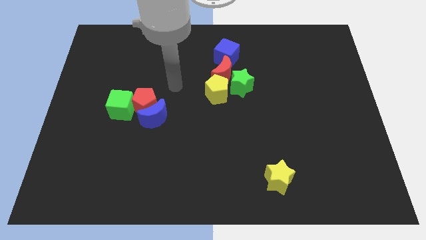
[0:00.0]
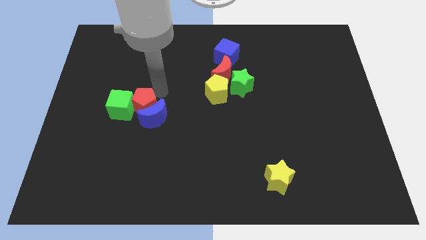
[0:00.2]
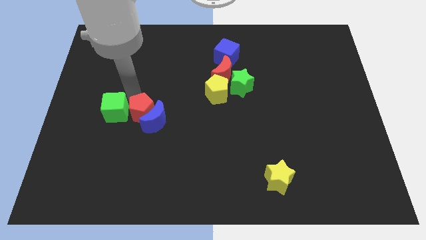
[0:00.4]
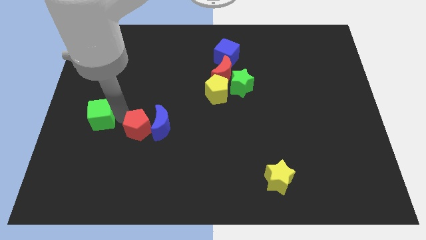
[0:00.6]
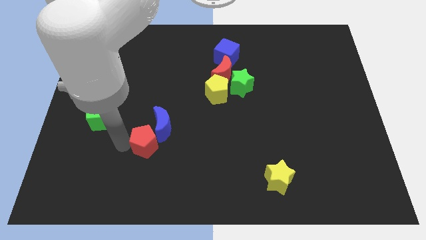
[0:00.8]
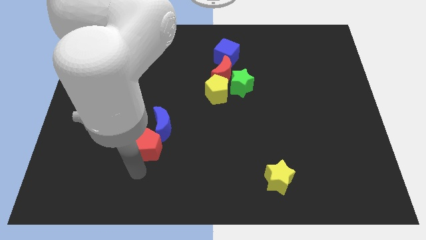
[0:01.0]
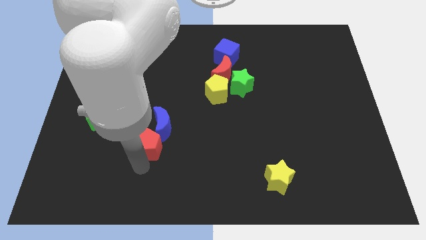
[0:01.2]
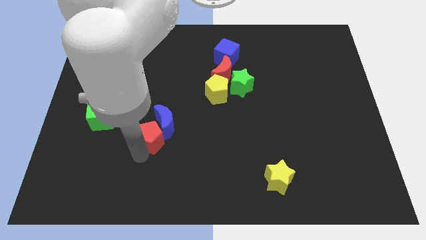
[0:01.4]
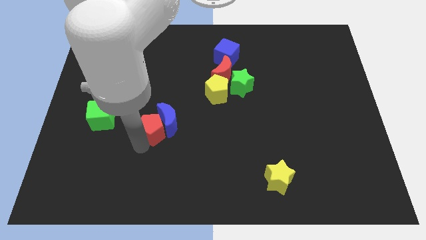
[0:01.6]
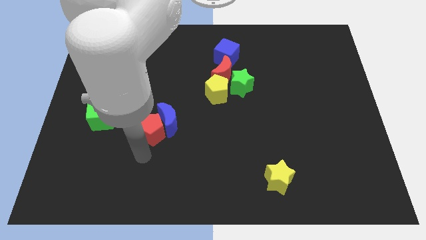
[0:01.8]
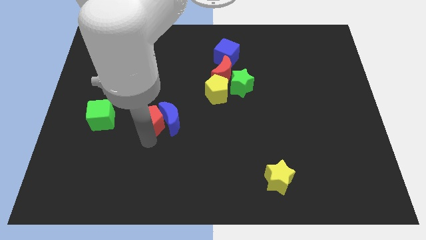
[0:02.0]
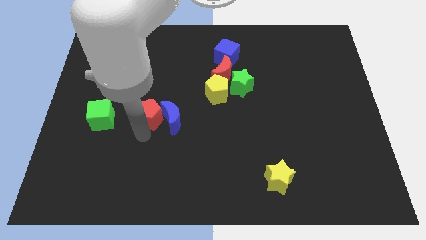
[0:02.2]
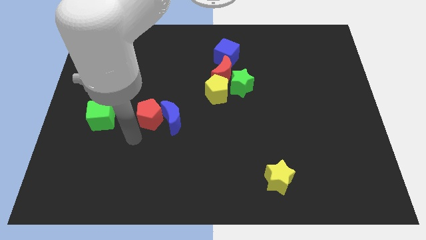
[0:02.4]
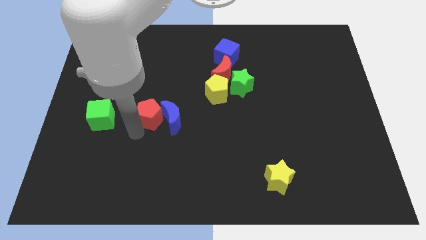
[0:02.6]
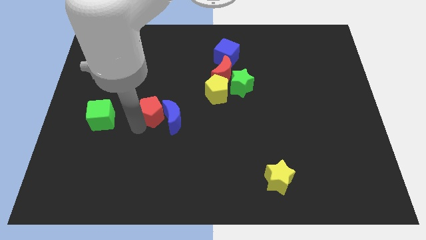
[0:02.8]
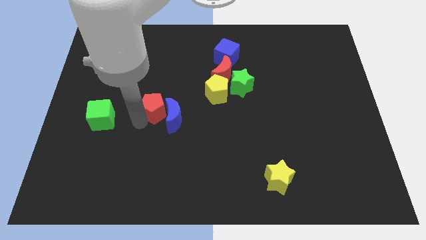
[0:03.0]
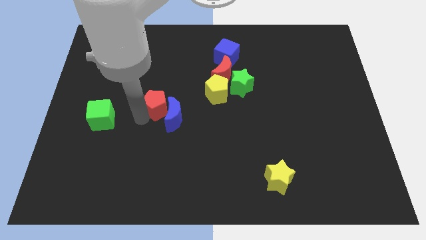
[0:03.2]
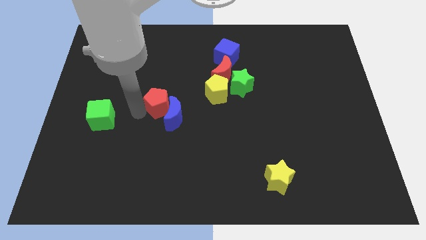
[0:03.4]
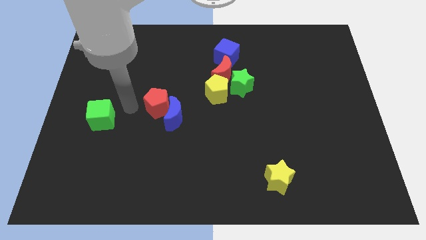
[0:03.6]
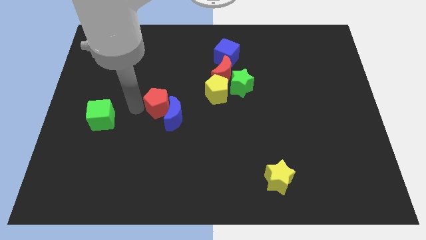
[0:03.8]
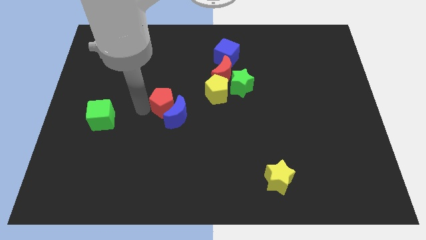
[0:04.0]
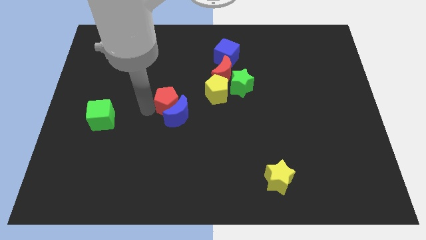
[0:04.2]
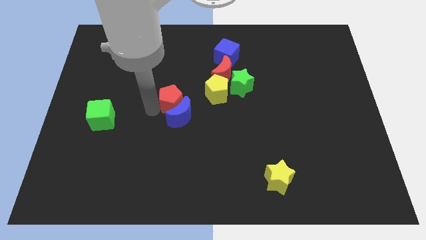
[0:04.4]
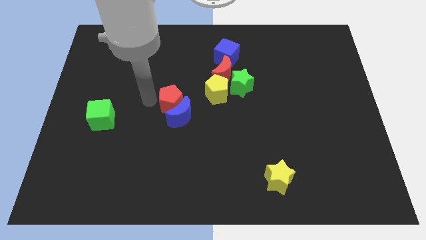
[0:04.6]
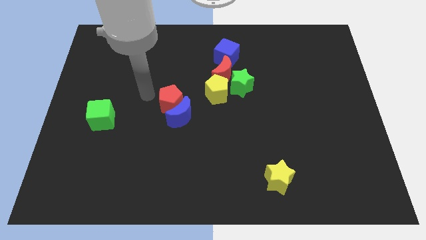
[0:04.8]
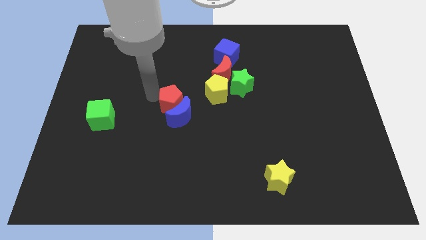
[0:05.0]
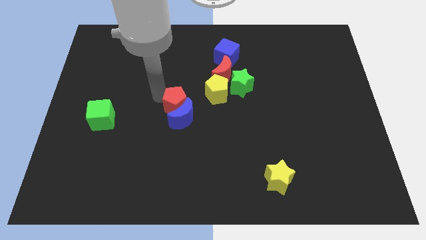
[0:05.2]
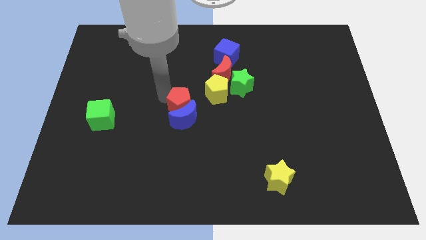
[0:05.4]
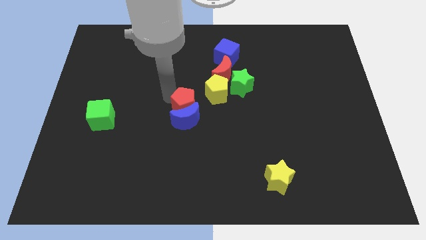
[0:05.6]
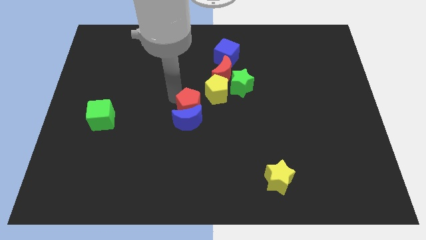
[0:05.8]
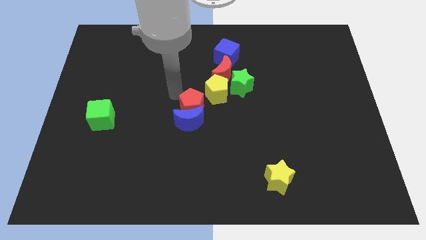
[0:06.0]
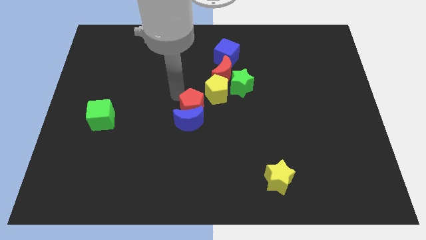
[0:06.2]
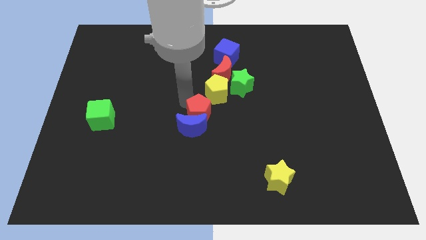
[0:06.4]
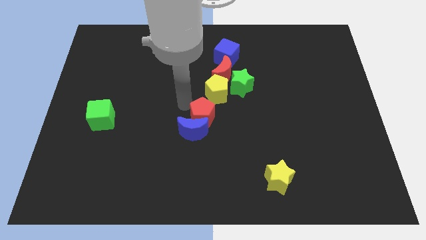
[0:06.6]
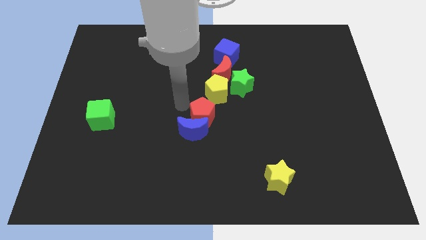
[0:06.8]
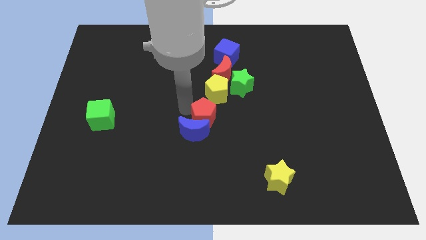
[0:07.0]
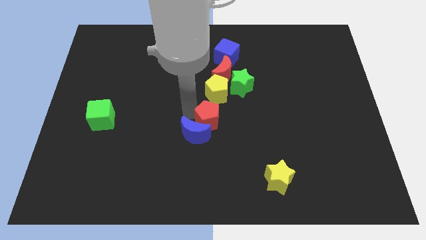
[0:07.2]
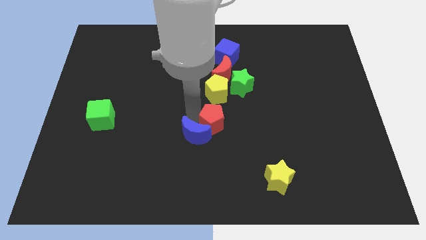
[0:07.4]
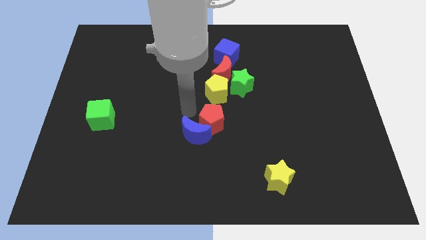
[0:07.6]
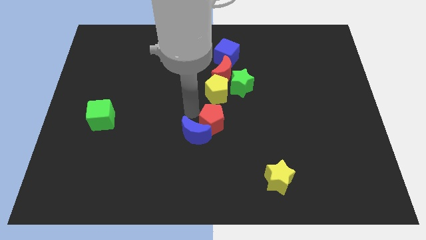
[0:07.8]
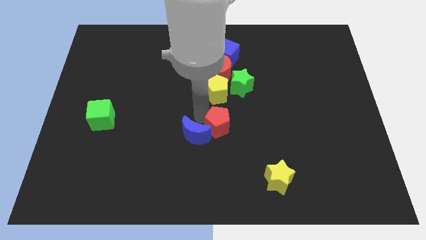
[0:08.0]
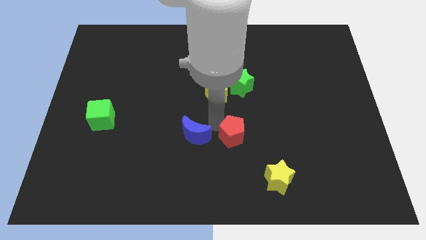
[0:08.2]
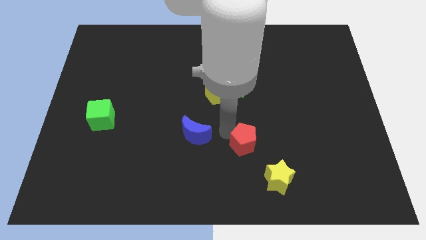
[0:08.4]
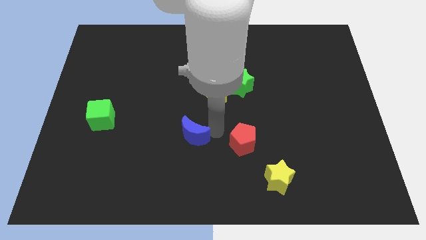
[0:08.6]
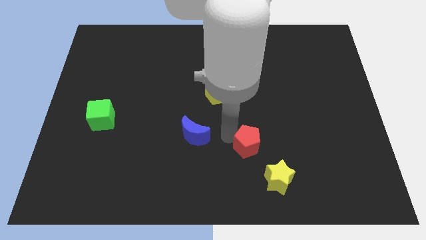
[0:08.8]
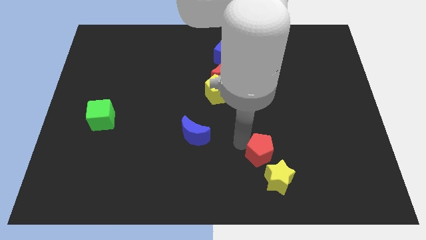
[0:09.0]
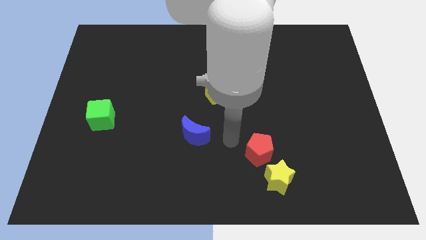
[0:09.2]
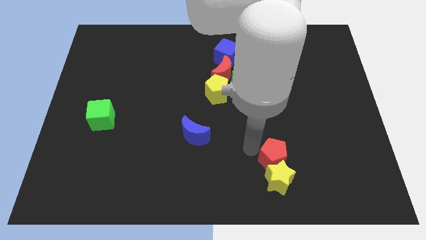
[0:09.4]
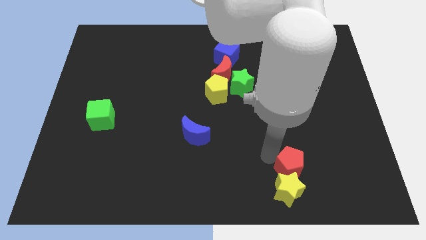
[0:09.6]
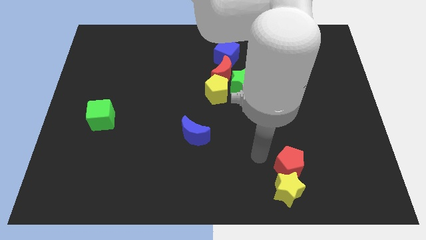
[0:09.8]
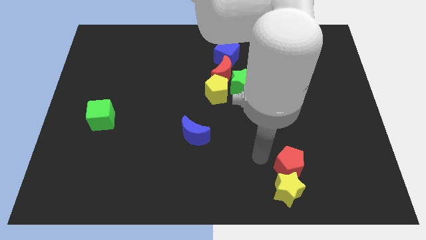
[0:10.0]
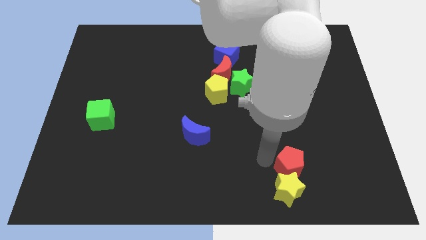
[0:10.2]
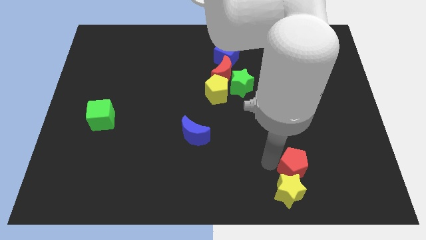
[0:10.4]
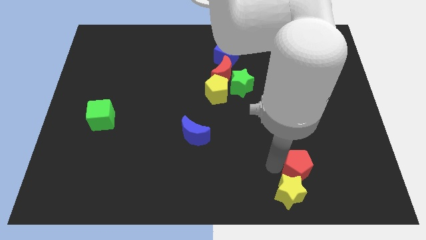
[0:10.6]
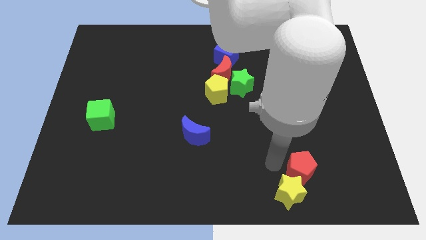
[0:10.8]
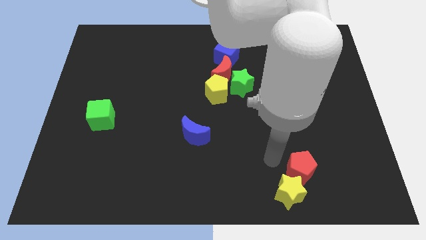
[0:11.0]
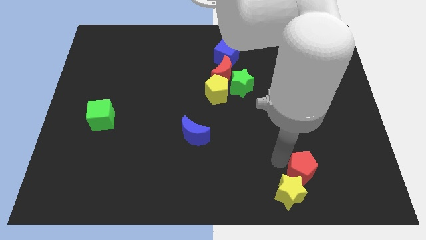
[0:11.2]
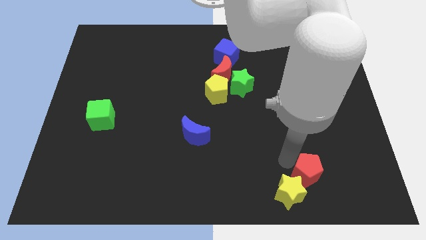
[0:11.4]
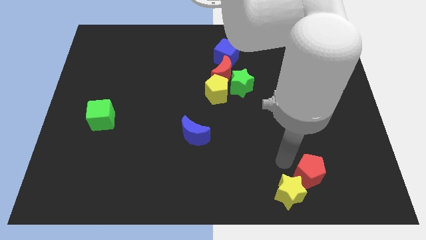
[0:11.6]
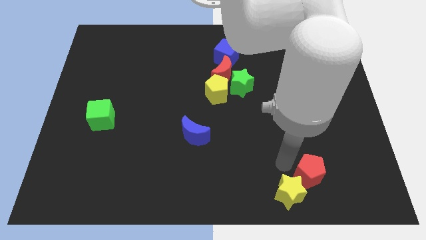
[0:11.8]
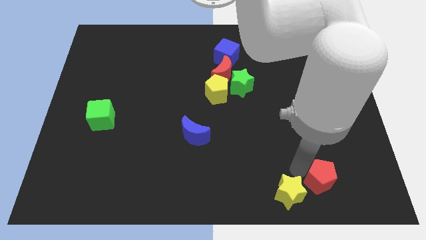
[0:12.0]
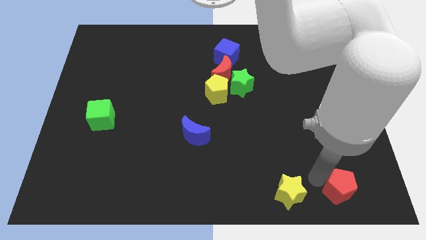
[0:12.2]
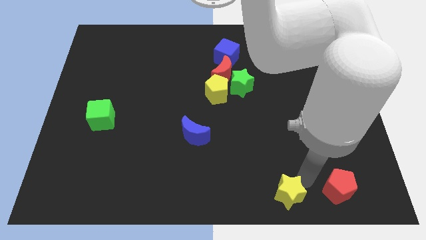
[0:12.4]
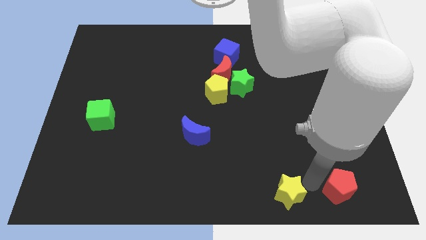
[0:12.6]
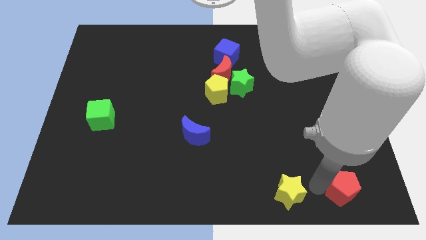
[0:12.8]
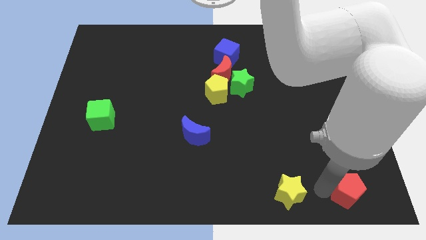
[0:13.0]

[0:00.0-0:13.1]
slide the red pentagon to the bottom right
